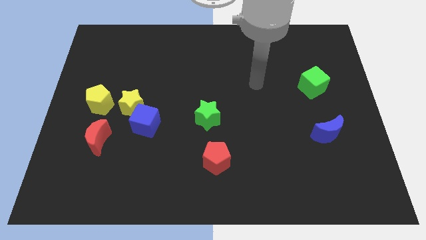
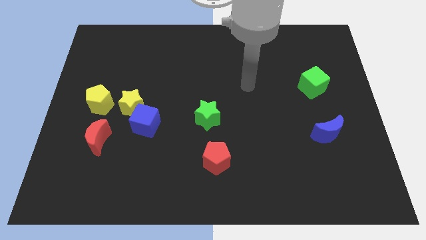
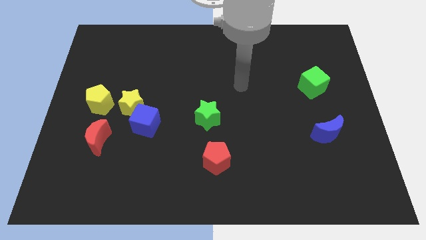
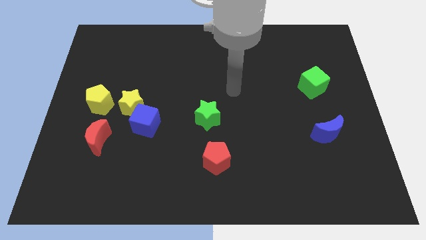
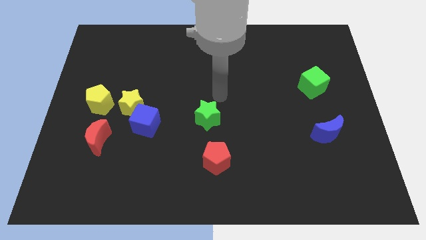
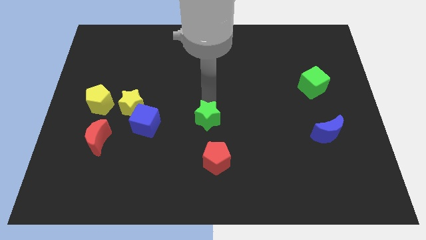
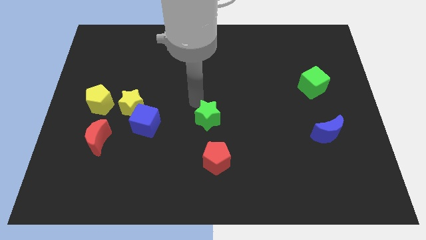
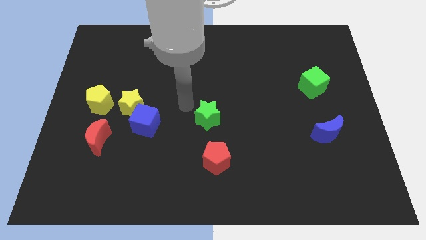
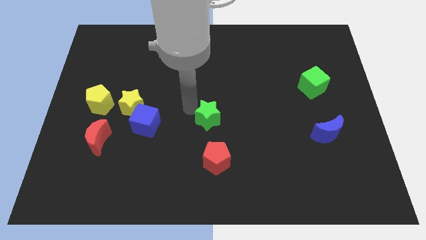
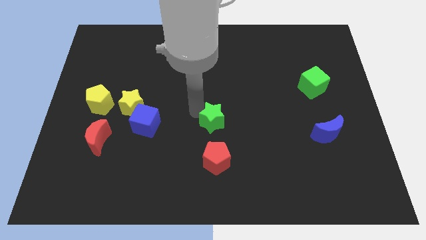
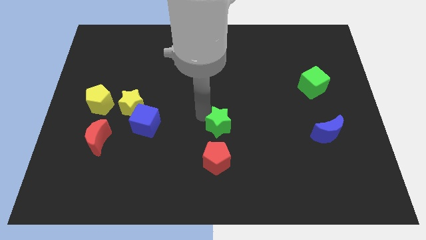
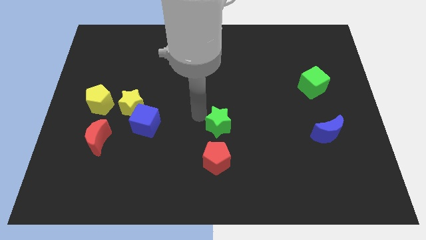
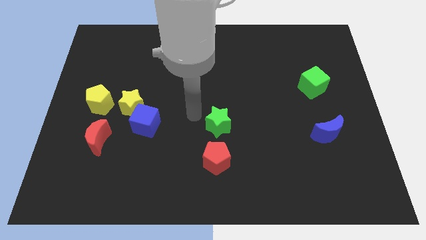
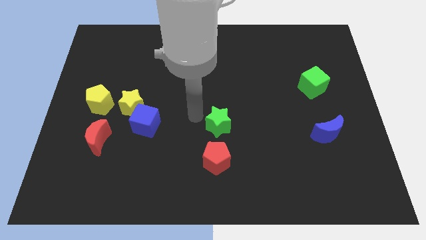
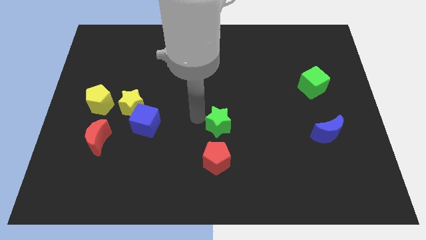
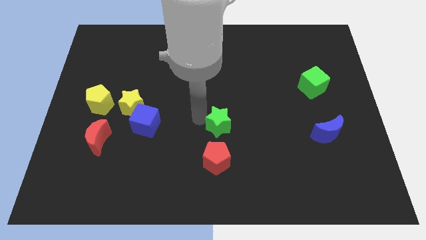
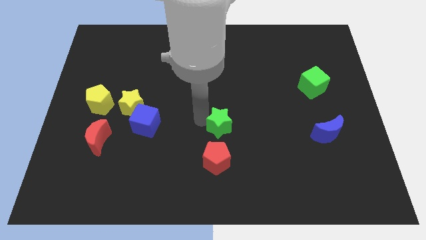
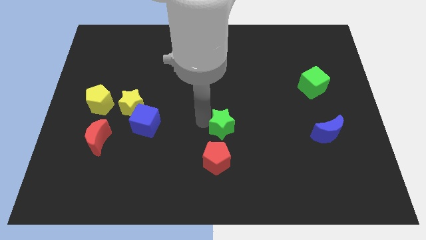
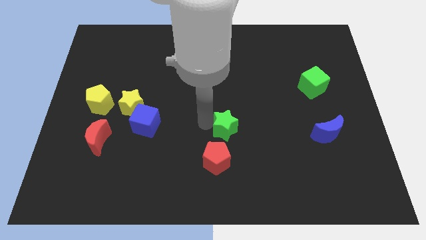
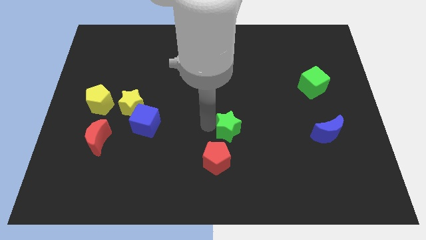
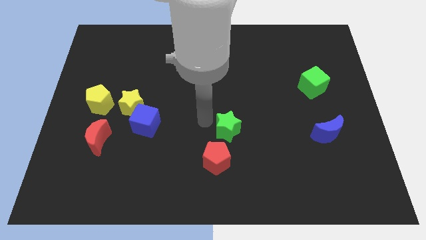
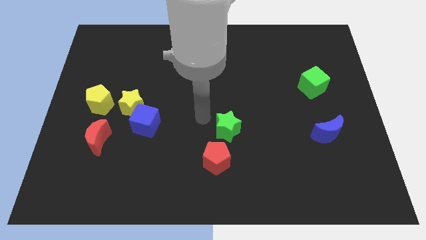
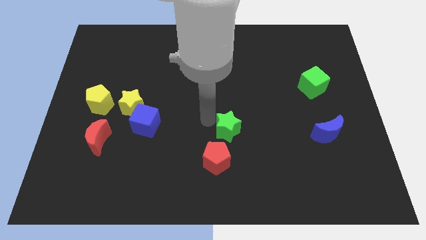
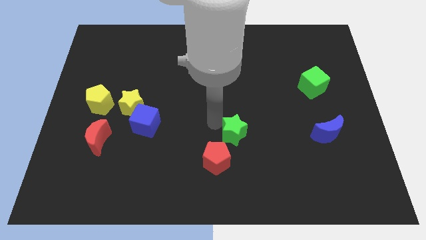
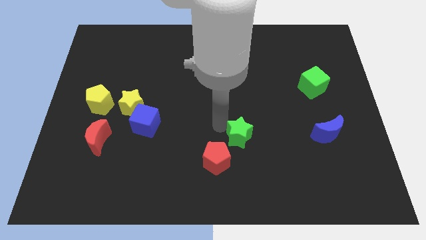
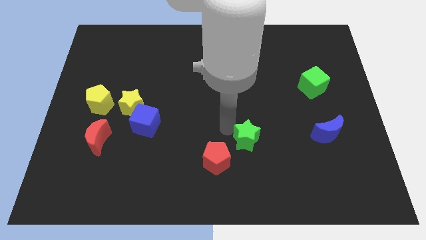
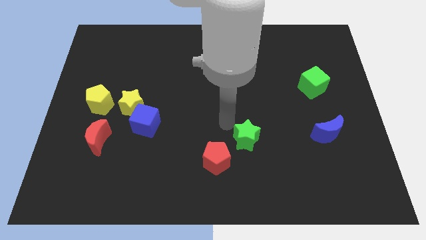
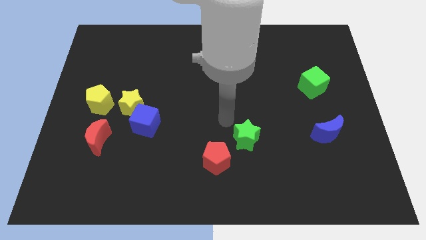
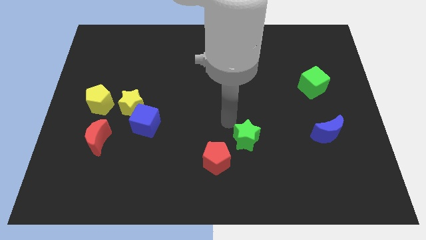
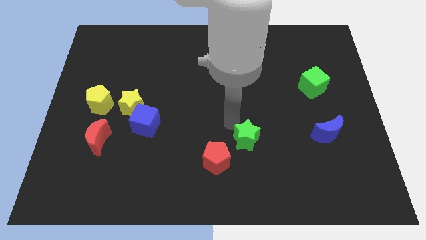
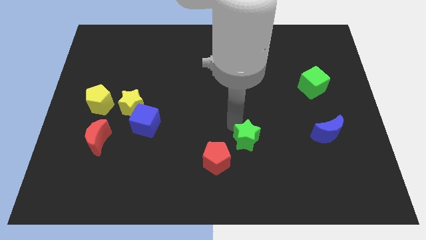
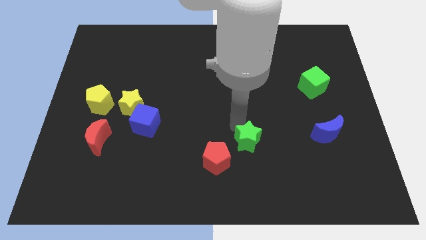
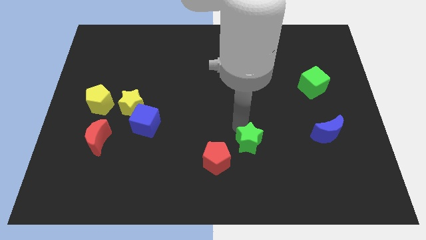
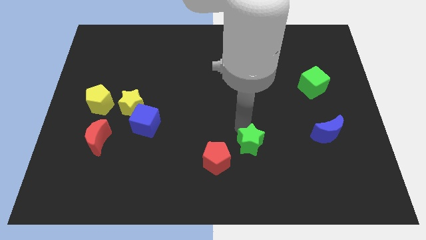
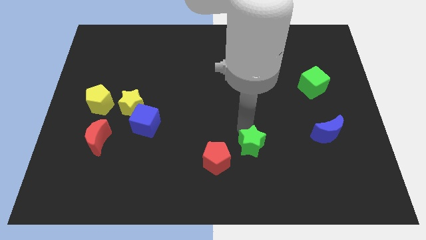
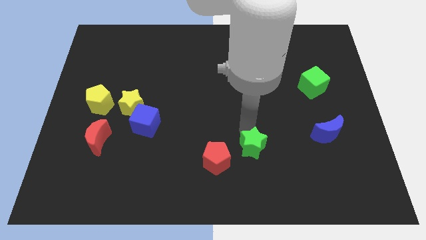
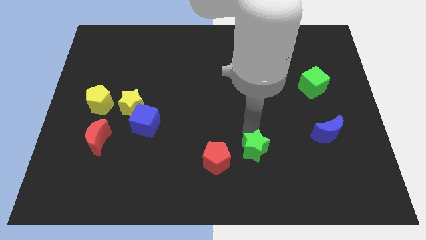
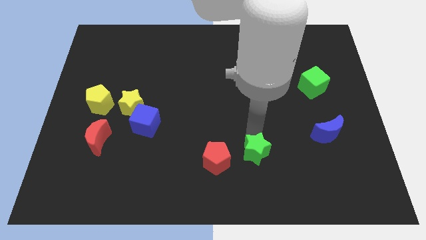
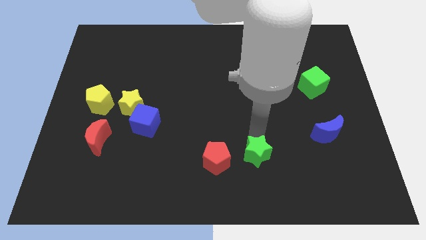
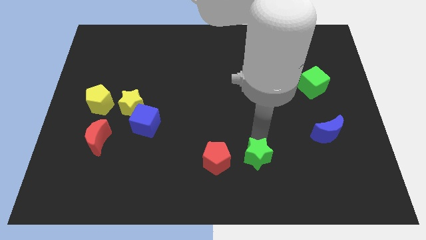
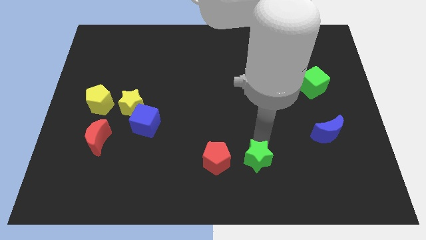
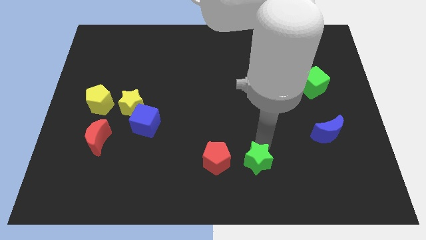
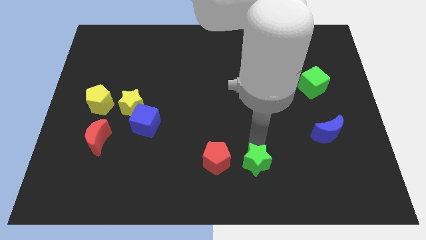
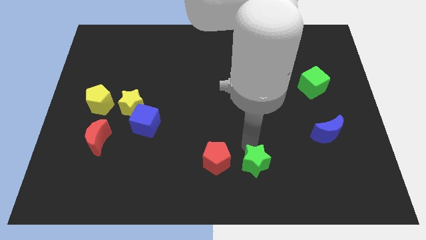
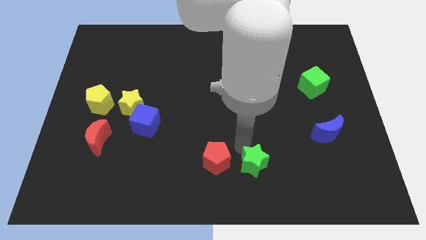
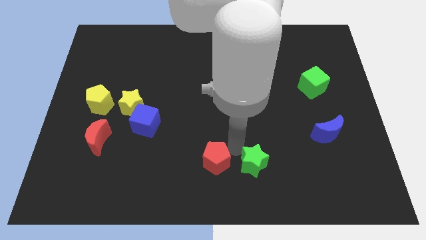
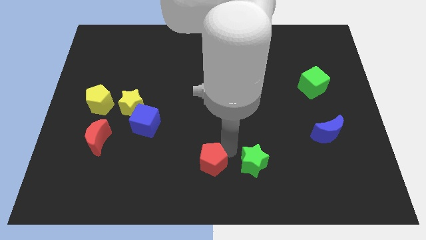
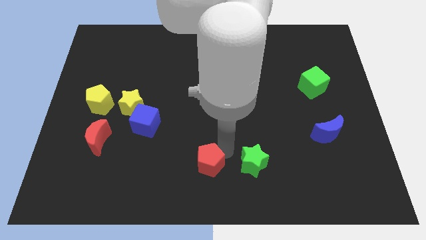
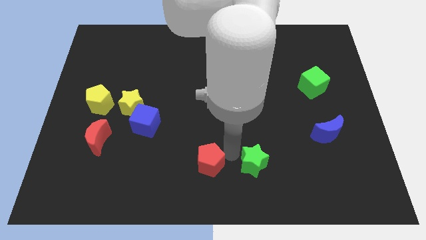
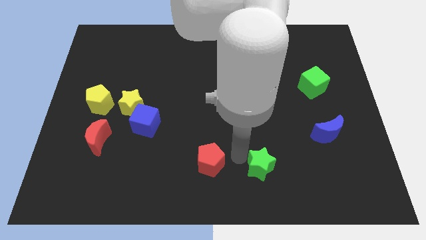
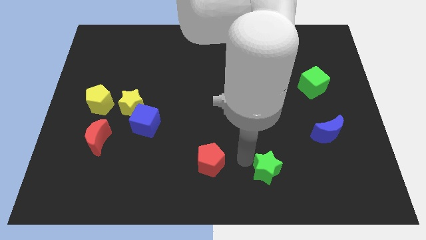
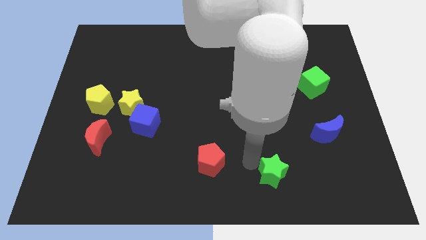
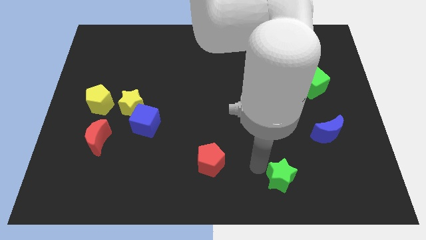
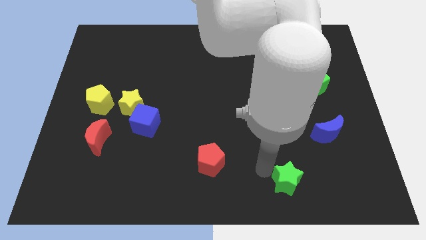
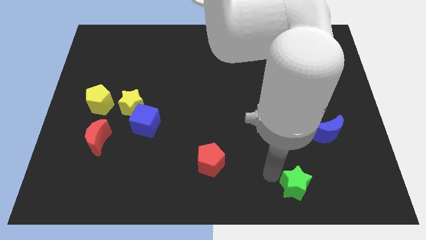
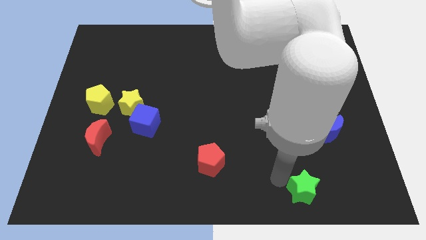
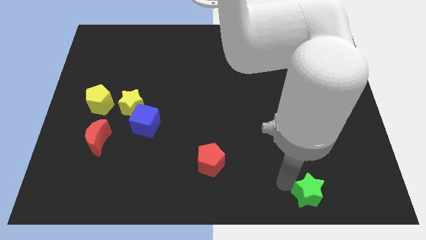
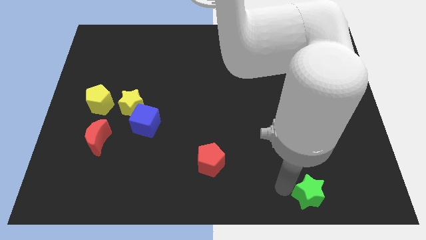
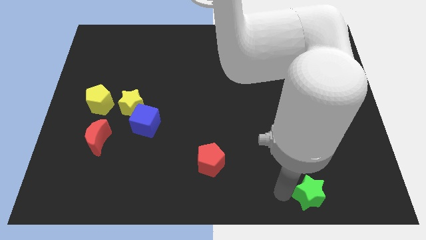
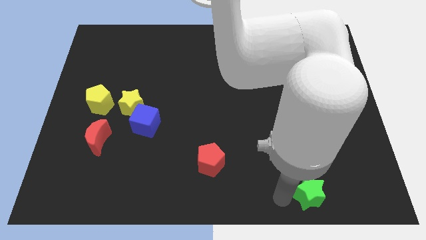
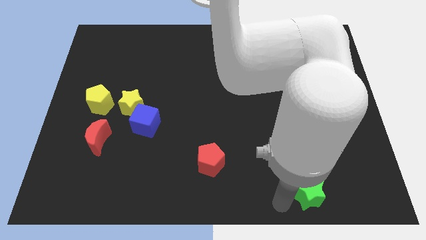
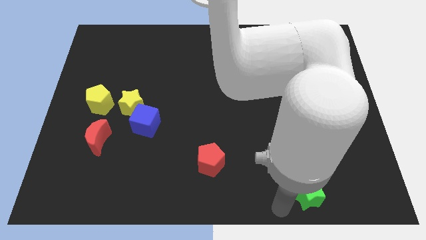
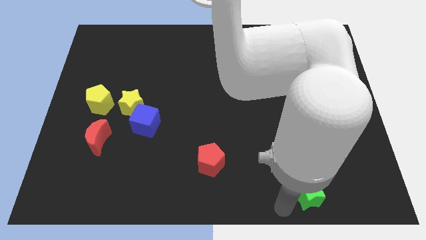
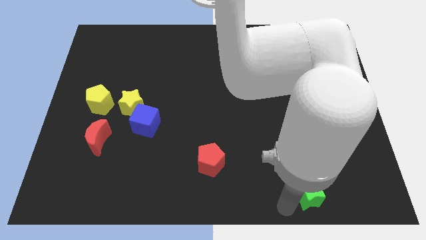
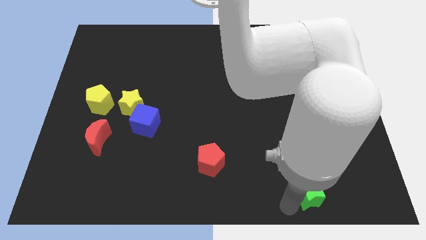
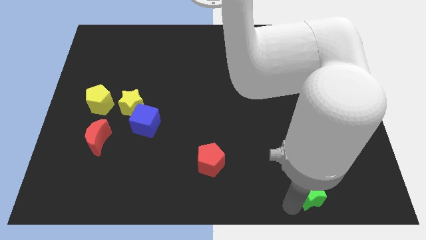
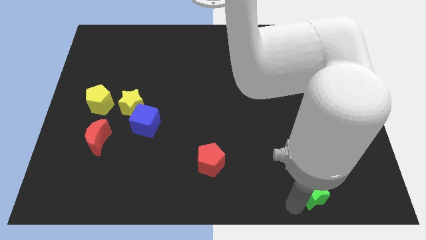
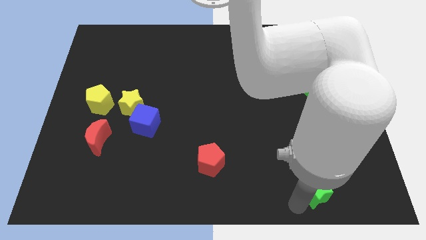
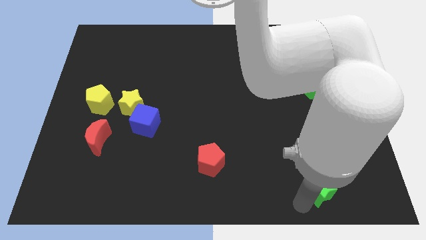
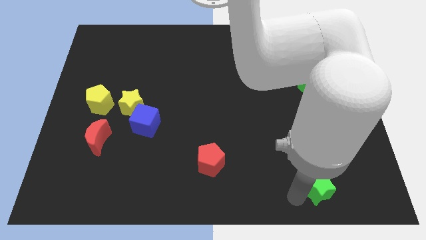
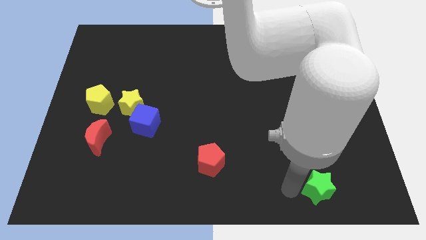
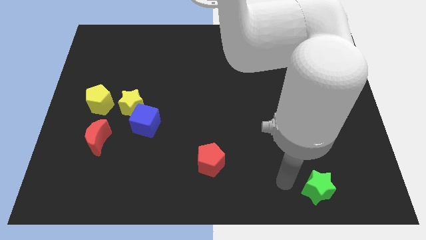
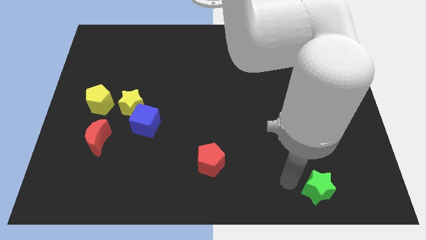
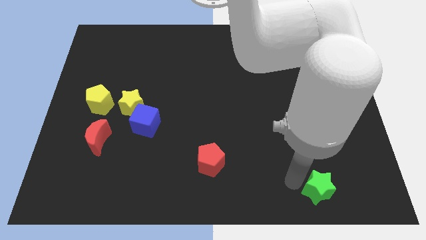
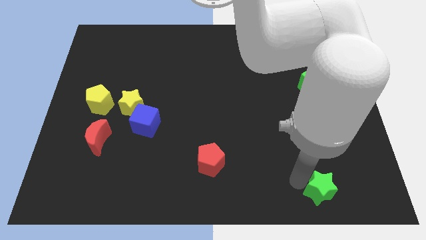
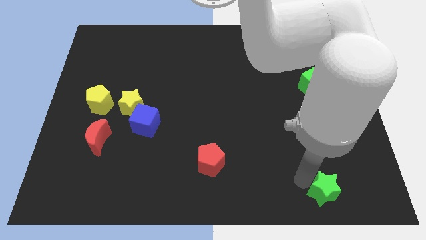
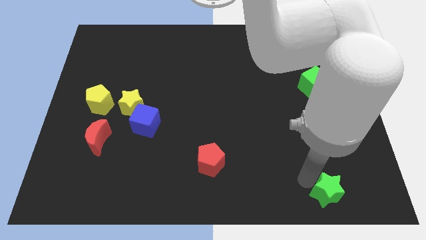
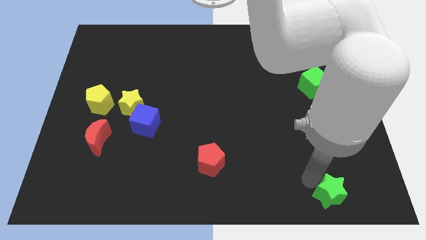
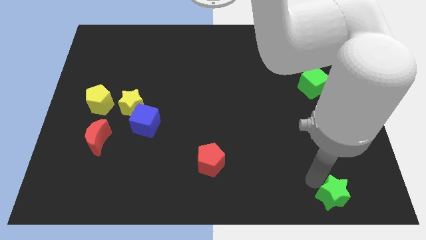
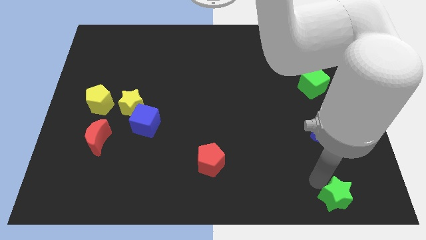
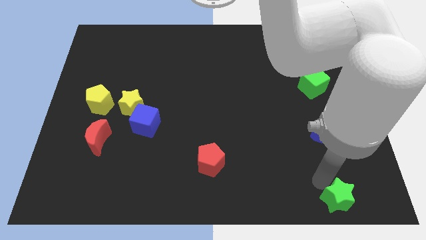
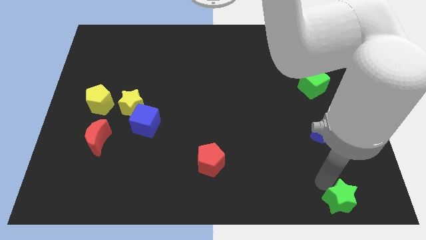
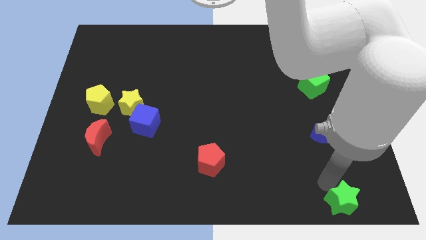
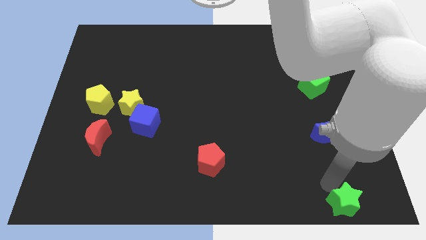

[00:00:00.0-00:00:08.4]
move the green star to the bottom right of the board
